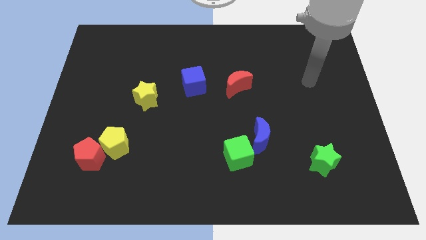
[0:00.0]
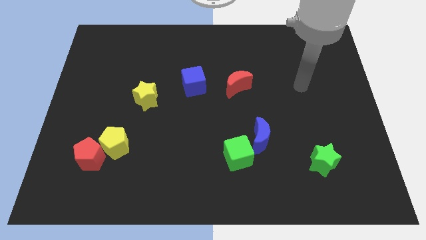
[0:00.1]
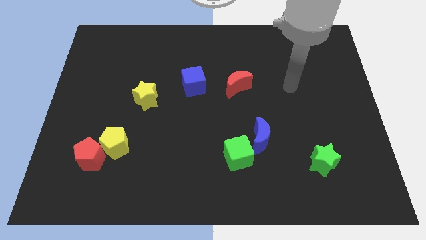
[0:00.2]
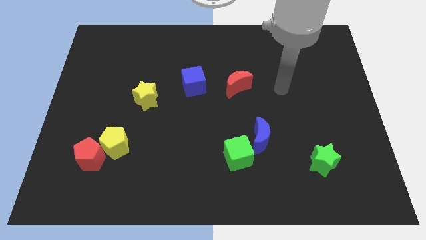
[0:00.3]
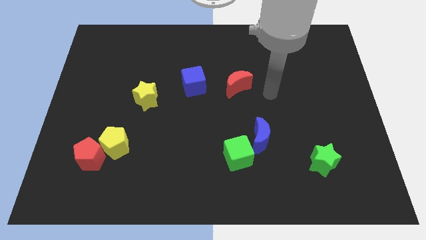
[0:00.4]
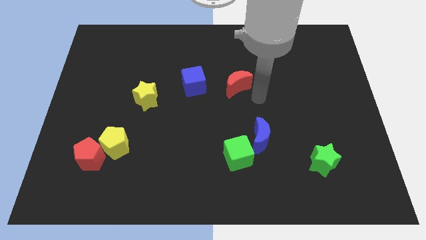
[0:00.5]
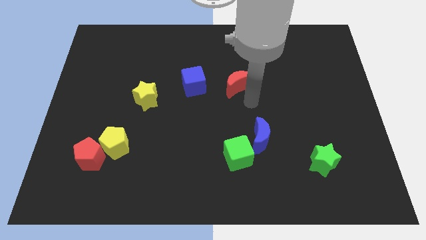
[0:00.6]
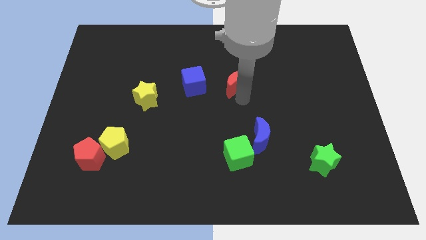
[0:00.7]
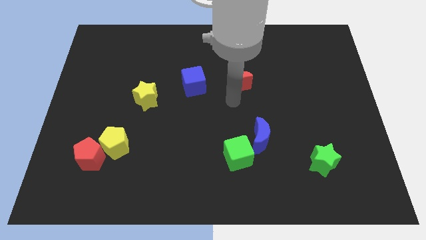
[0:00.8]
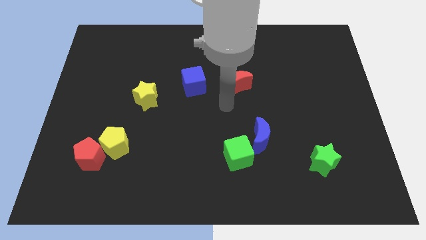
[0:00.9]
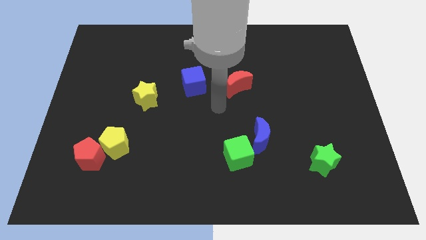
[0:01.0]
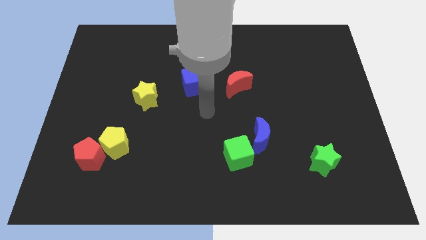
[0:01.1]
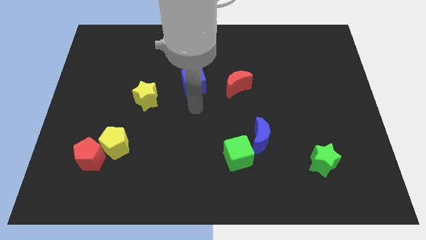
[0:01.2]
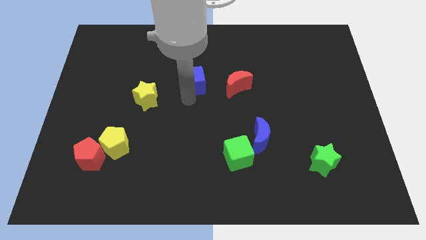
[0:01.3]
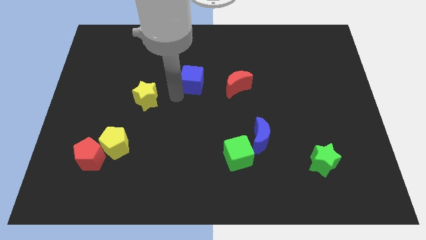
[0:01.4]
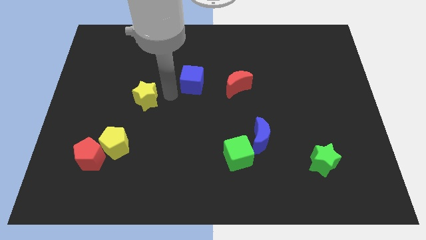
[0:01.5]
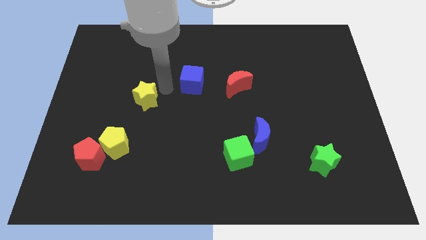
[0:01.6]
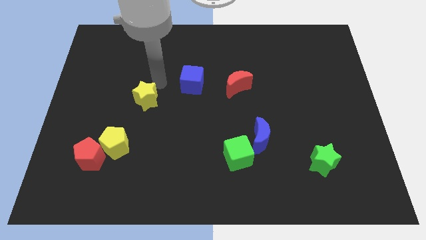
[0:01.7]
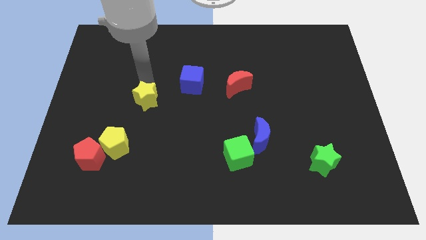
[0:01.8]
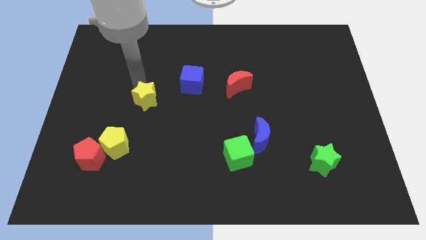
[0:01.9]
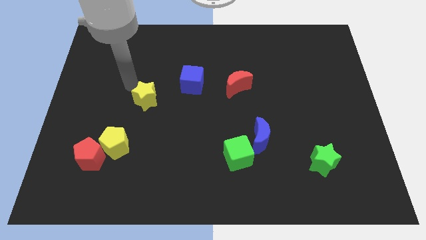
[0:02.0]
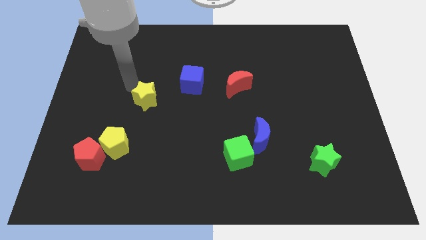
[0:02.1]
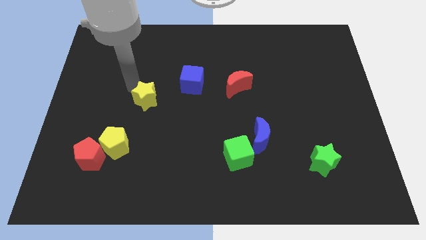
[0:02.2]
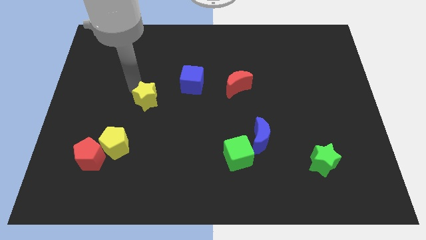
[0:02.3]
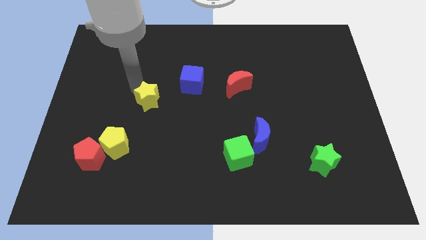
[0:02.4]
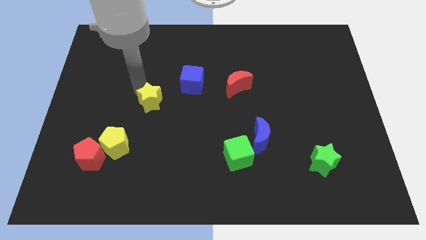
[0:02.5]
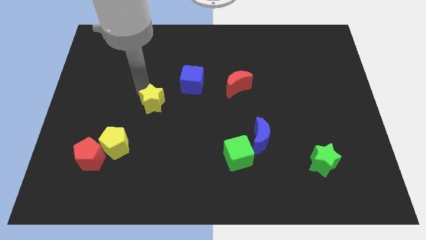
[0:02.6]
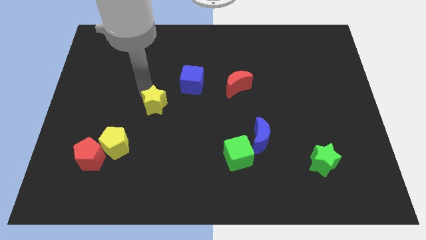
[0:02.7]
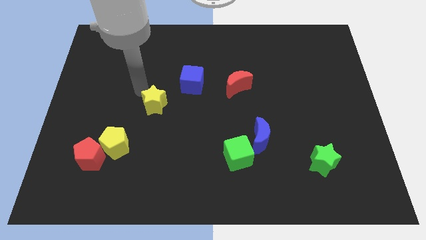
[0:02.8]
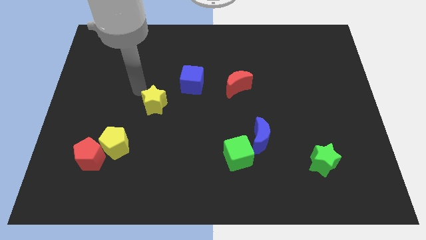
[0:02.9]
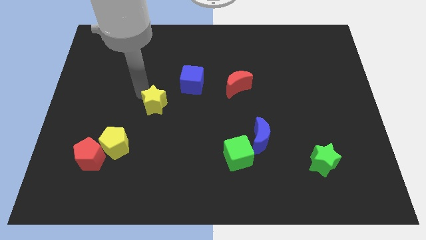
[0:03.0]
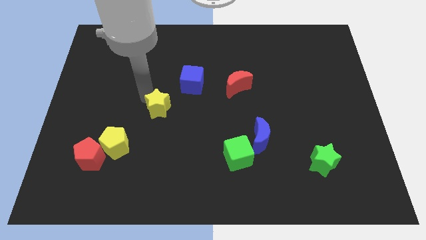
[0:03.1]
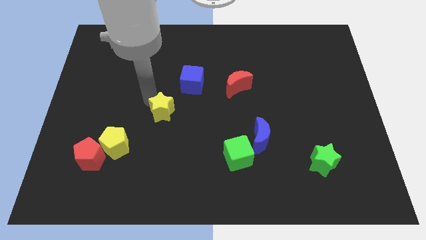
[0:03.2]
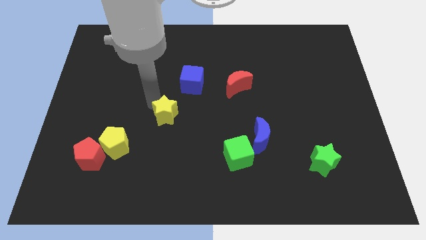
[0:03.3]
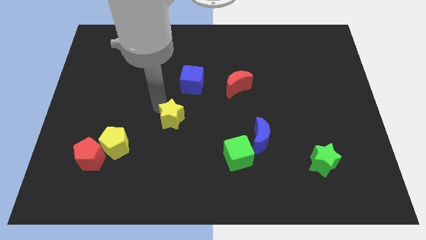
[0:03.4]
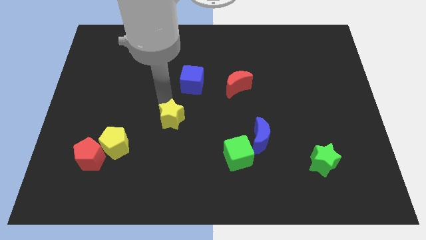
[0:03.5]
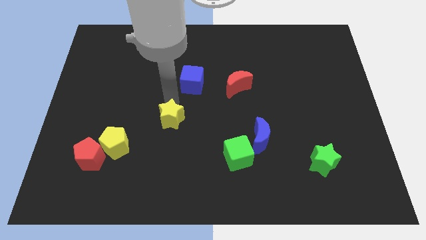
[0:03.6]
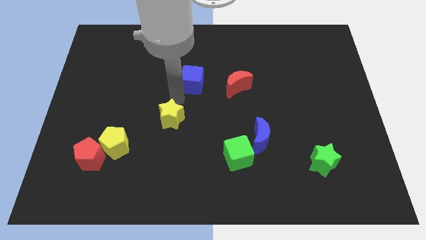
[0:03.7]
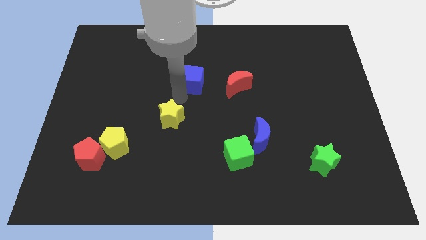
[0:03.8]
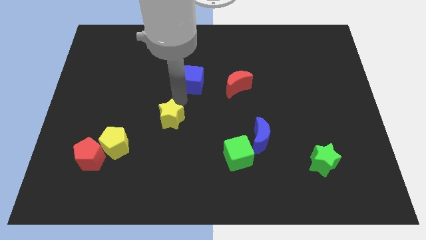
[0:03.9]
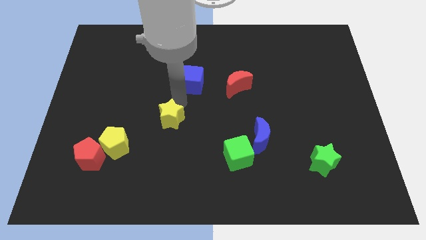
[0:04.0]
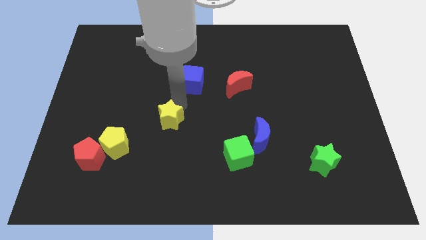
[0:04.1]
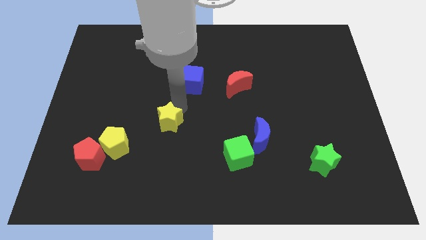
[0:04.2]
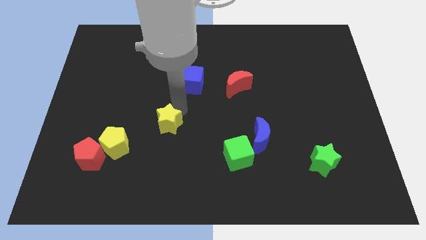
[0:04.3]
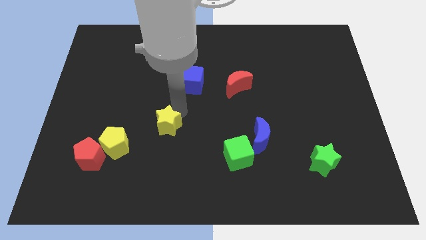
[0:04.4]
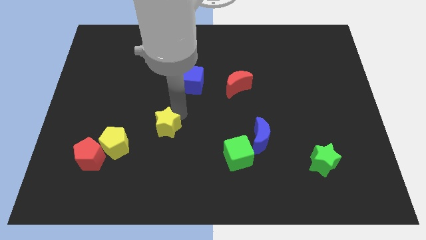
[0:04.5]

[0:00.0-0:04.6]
push the yellow star a little bit downwards

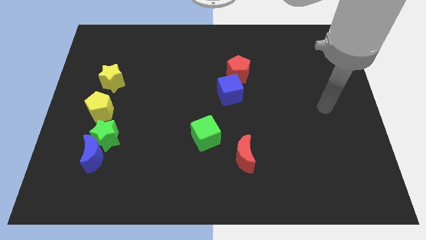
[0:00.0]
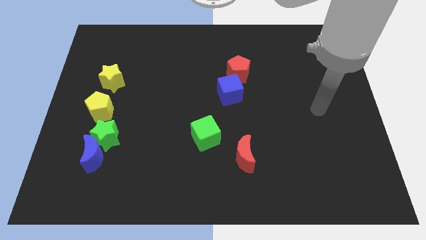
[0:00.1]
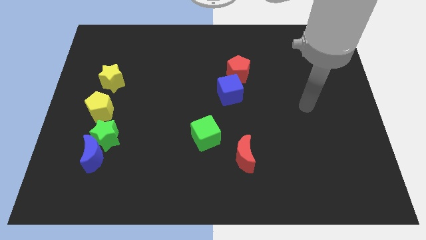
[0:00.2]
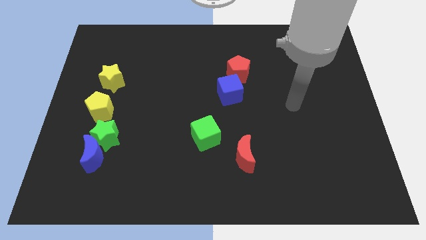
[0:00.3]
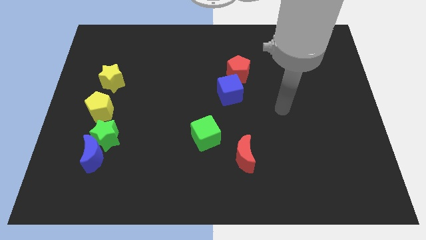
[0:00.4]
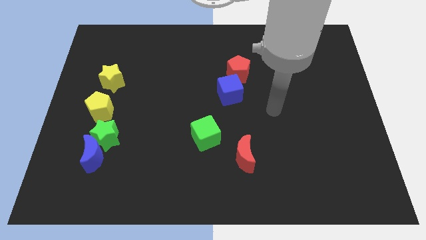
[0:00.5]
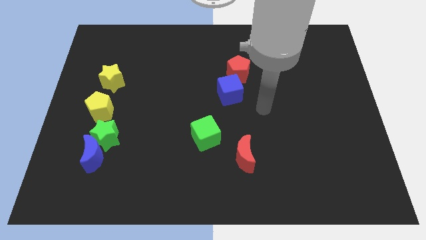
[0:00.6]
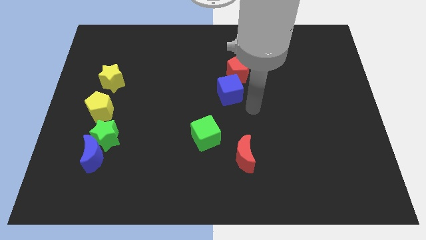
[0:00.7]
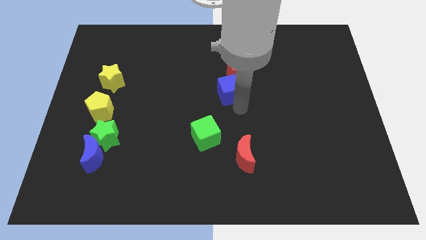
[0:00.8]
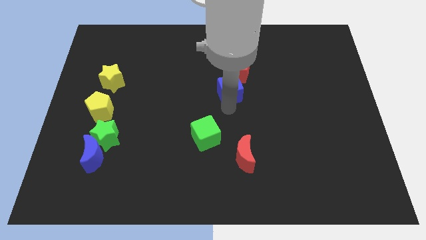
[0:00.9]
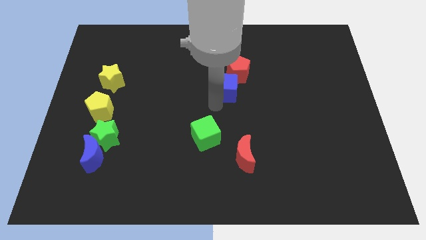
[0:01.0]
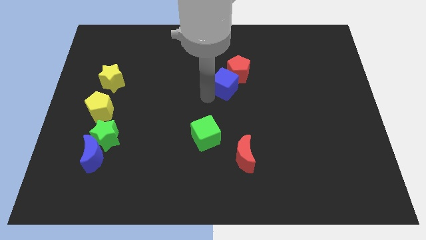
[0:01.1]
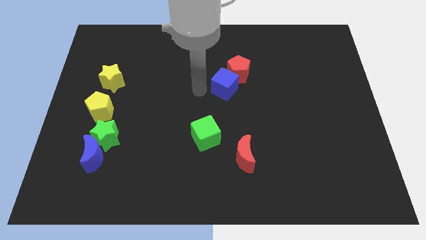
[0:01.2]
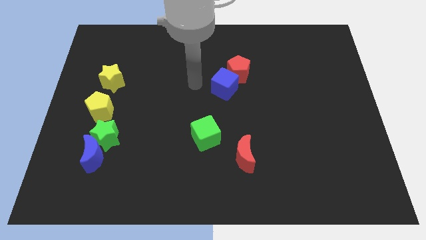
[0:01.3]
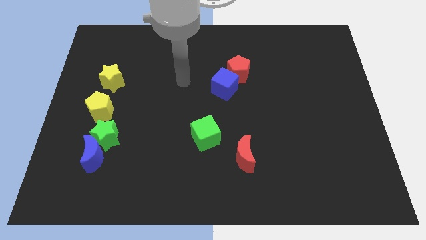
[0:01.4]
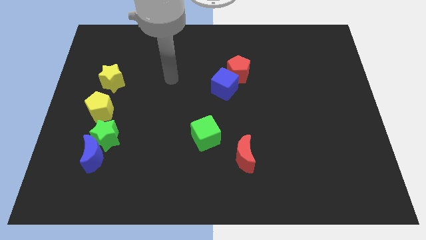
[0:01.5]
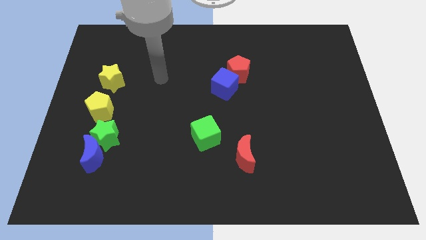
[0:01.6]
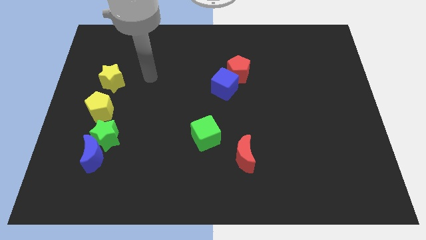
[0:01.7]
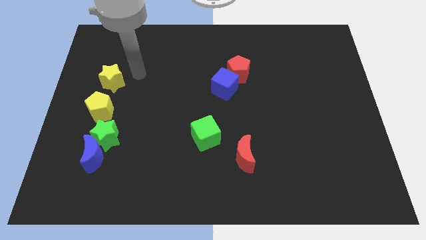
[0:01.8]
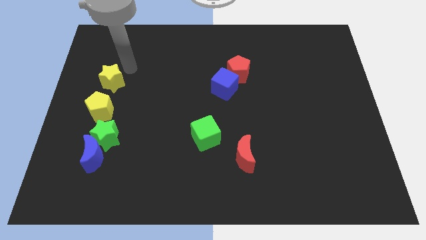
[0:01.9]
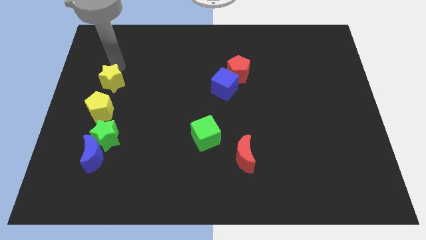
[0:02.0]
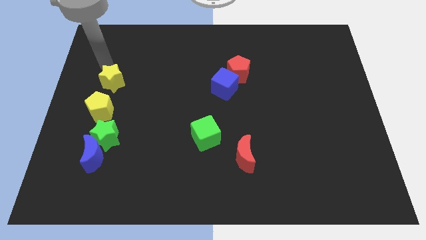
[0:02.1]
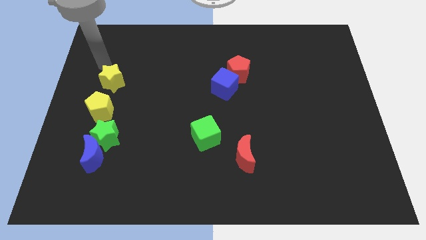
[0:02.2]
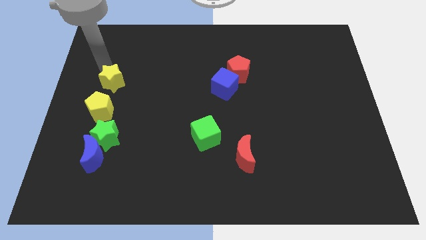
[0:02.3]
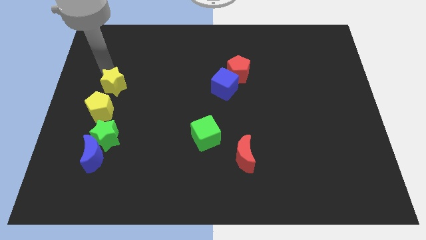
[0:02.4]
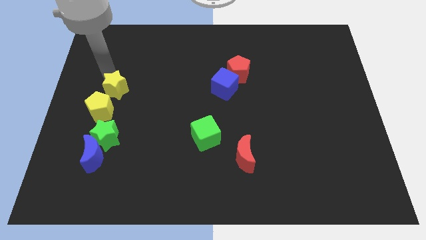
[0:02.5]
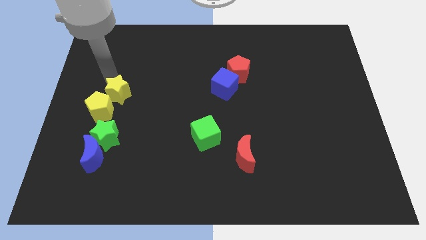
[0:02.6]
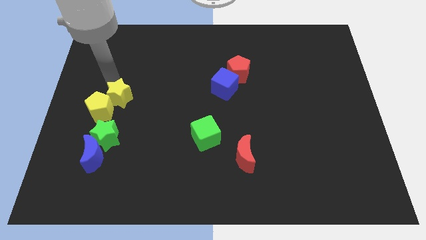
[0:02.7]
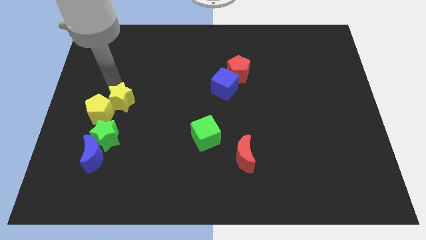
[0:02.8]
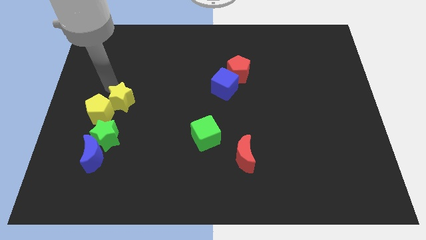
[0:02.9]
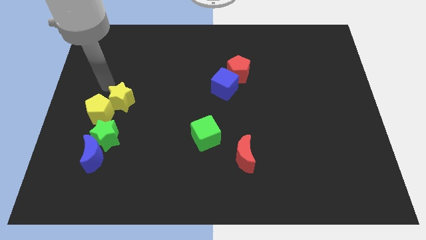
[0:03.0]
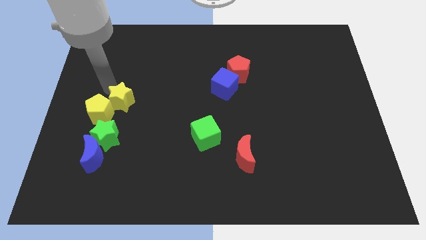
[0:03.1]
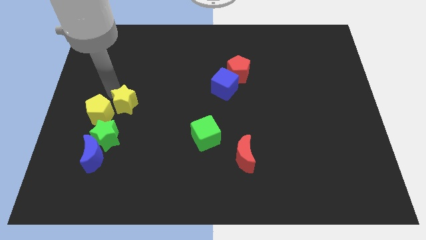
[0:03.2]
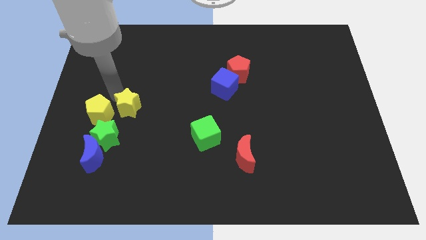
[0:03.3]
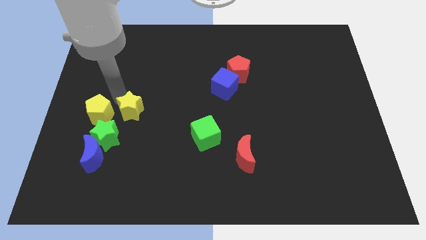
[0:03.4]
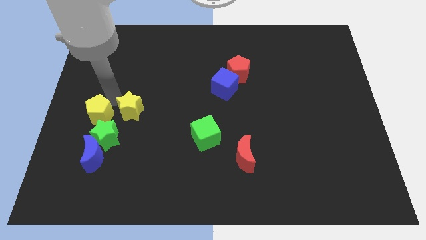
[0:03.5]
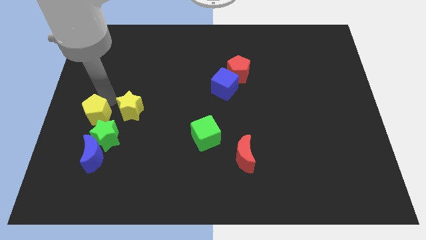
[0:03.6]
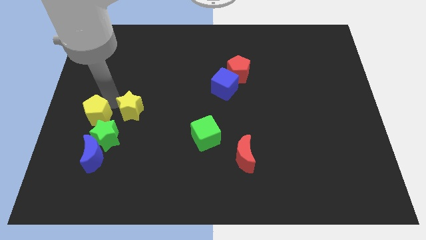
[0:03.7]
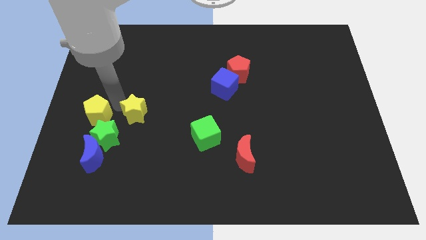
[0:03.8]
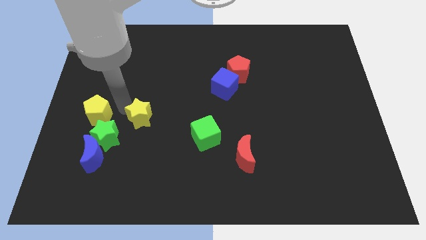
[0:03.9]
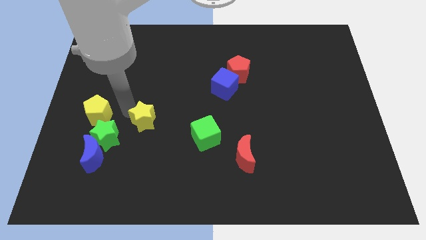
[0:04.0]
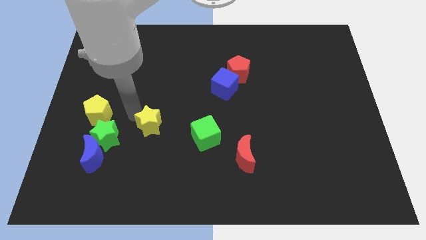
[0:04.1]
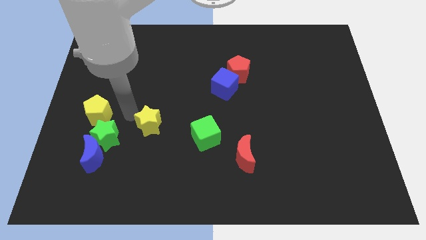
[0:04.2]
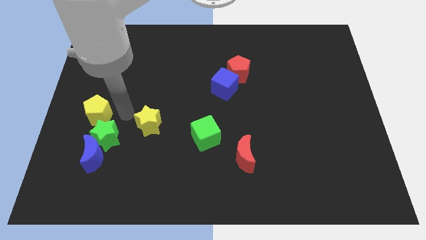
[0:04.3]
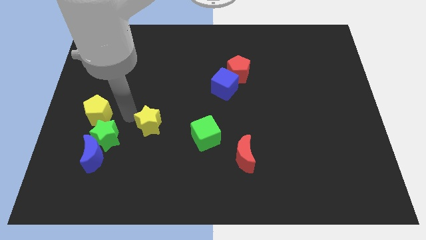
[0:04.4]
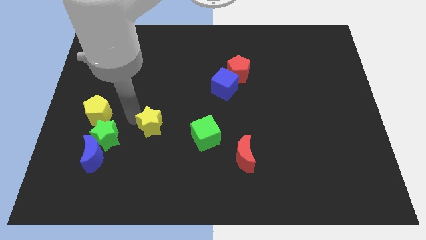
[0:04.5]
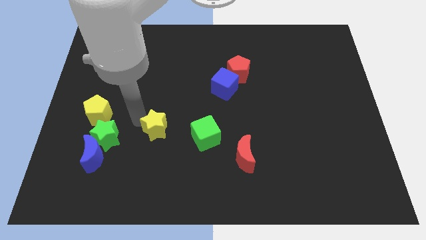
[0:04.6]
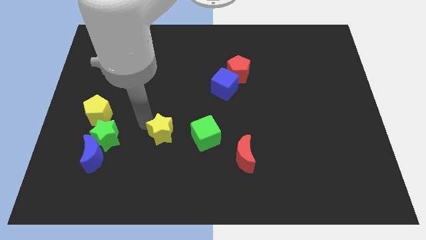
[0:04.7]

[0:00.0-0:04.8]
push the yellow star downwards and right diagonally
